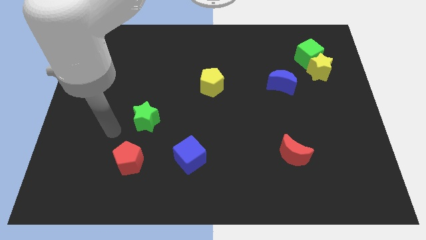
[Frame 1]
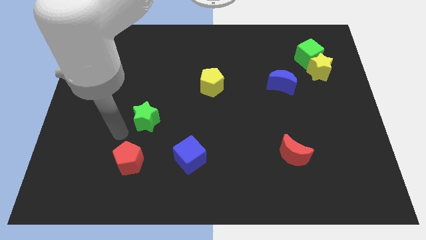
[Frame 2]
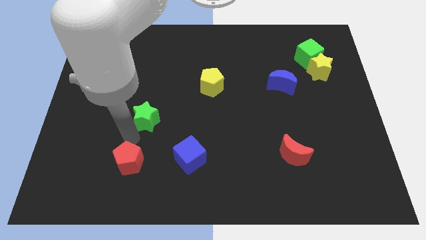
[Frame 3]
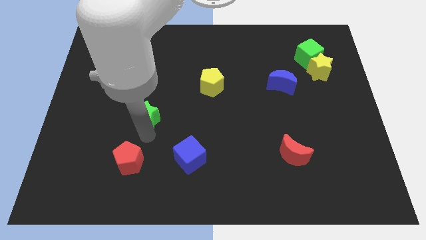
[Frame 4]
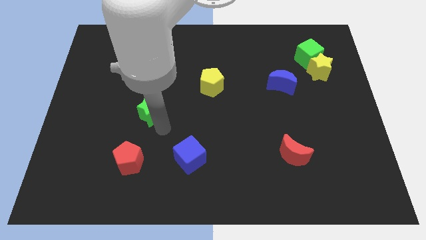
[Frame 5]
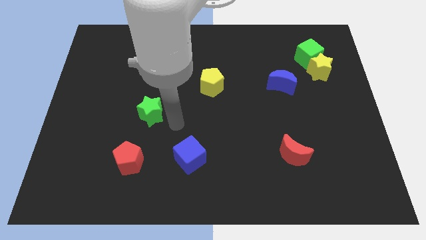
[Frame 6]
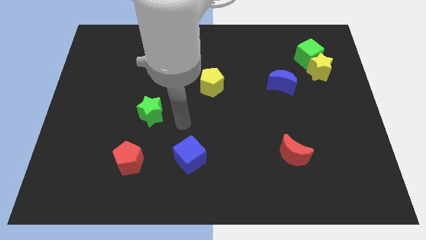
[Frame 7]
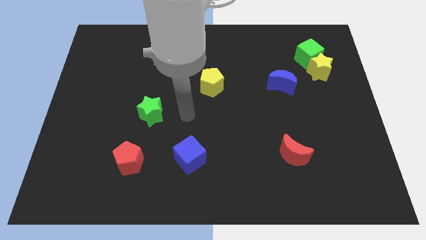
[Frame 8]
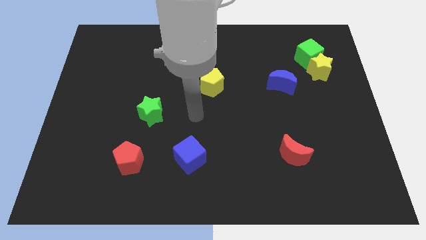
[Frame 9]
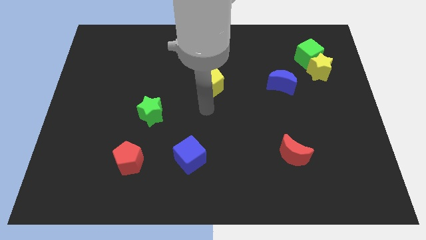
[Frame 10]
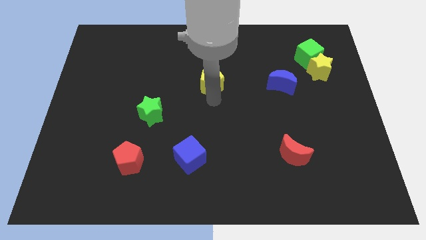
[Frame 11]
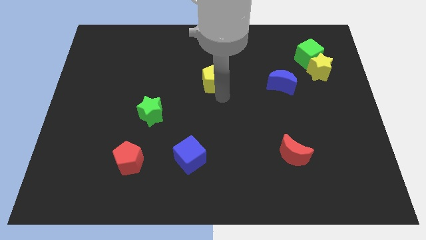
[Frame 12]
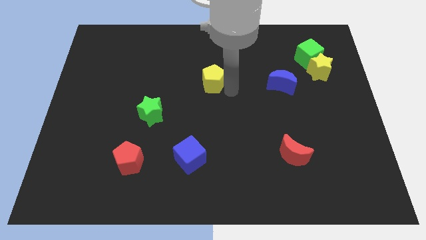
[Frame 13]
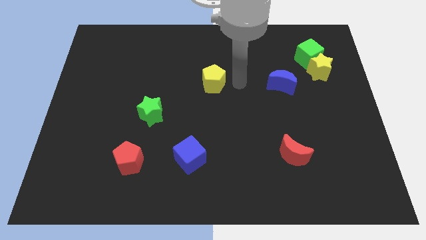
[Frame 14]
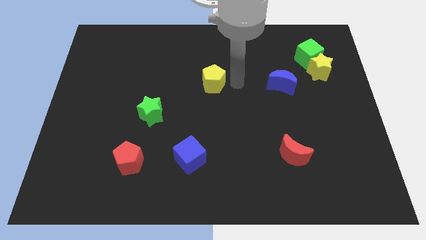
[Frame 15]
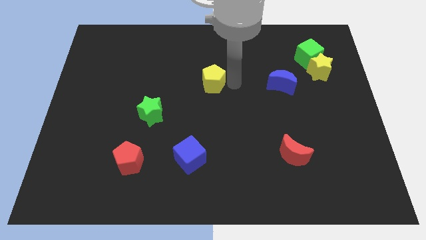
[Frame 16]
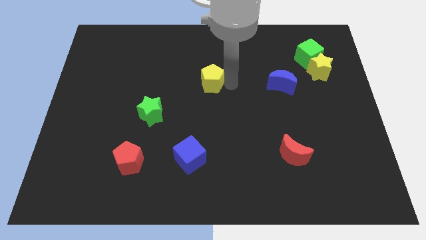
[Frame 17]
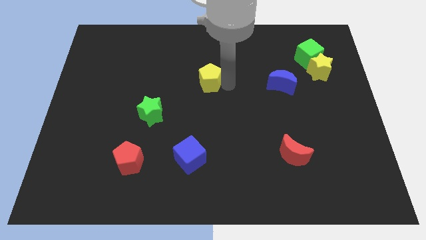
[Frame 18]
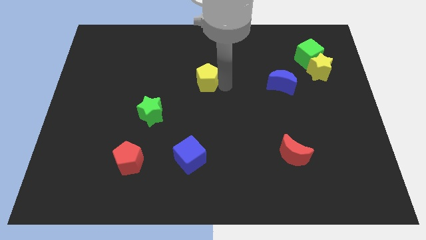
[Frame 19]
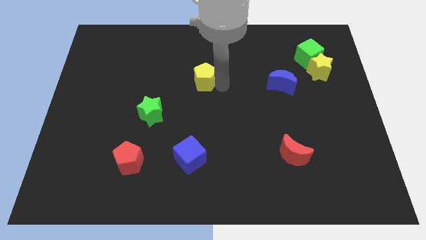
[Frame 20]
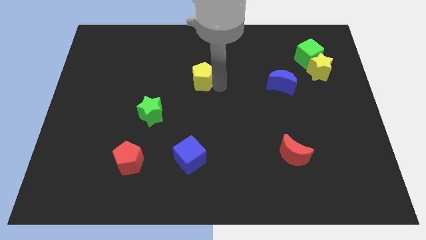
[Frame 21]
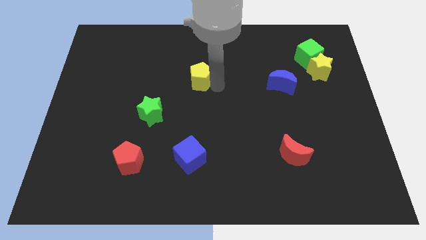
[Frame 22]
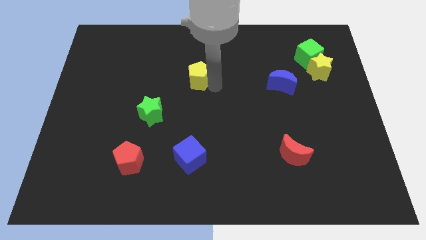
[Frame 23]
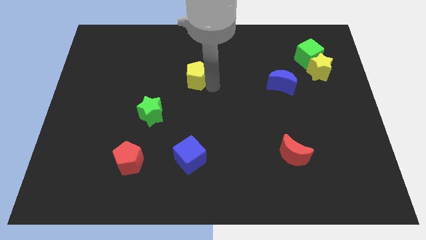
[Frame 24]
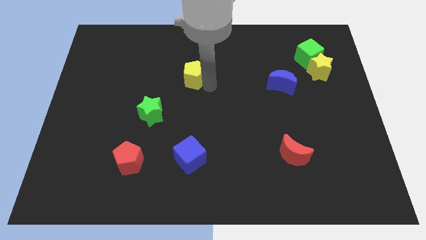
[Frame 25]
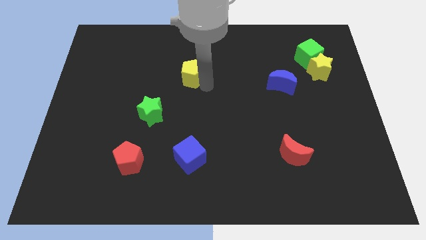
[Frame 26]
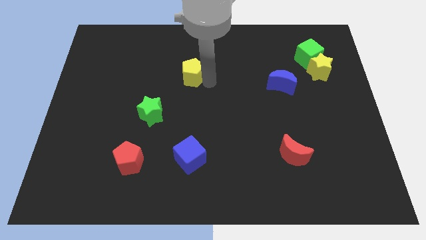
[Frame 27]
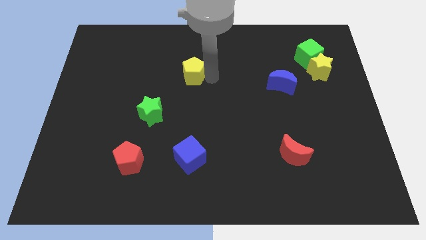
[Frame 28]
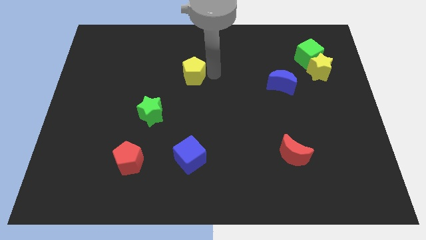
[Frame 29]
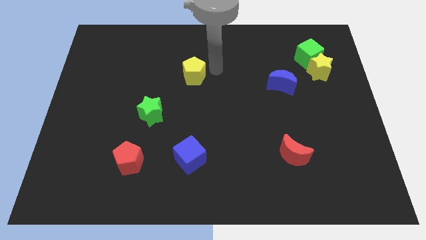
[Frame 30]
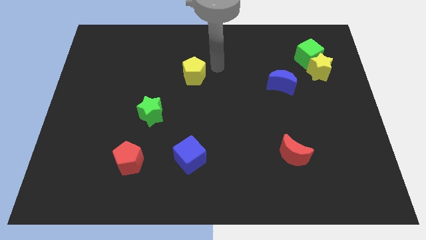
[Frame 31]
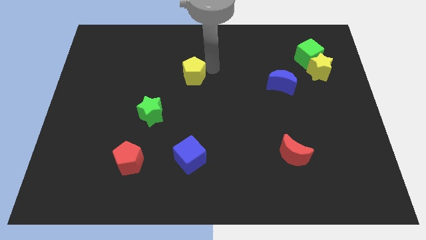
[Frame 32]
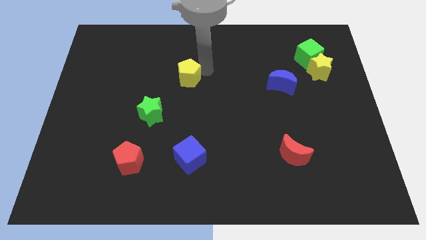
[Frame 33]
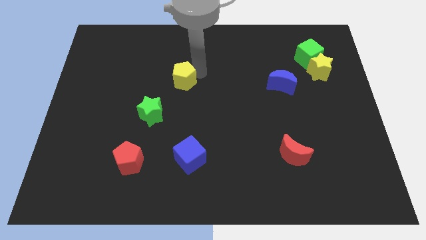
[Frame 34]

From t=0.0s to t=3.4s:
move the yellow pentagon slightly to the left

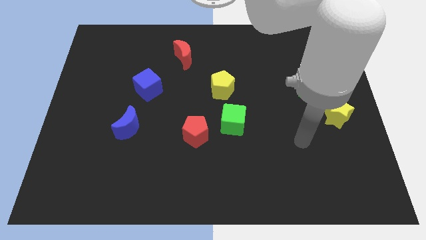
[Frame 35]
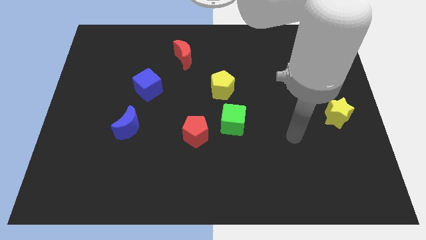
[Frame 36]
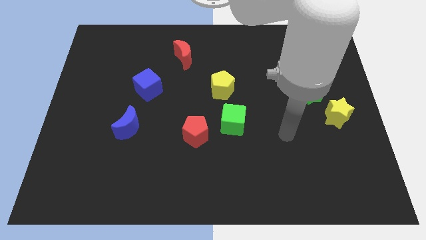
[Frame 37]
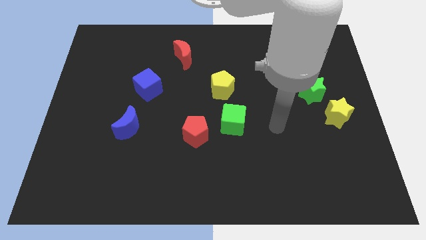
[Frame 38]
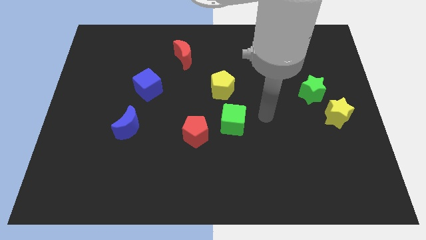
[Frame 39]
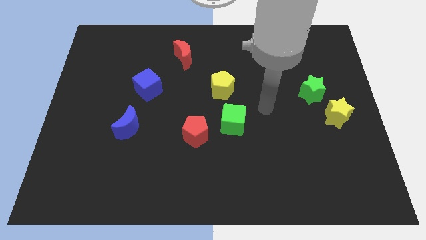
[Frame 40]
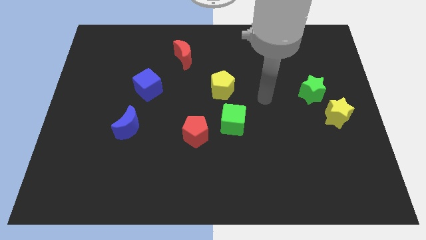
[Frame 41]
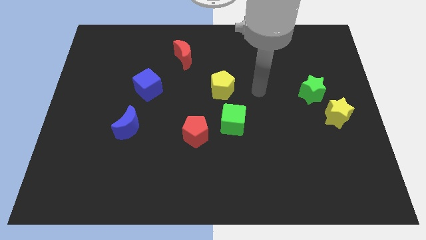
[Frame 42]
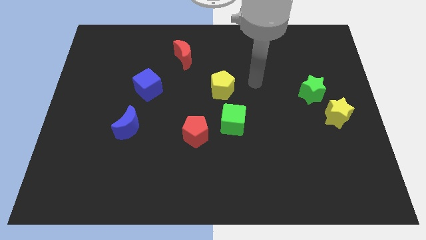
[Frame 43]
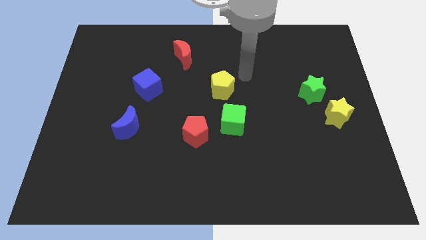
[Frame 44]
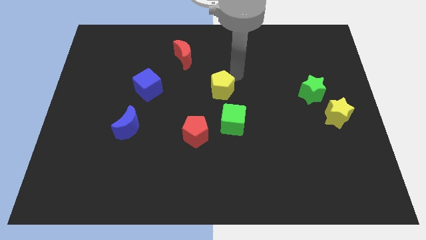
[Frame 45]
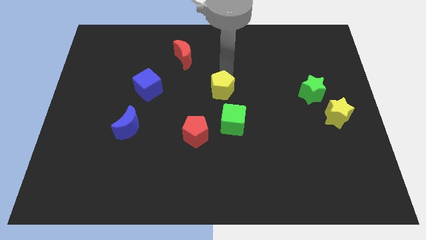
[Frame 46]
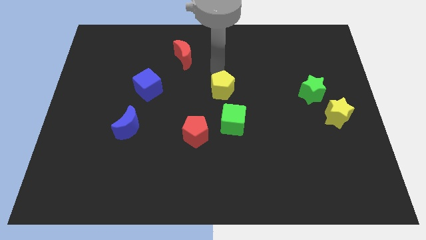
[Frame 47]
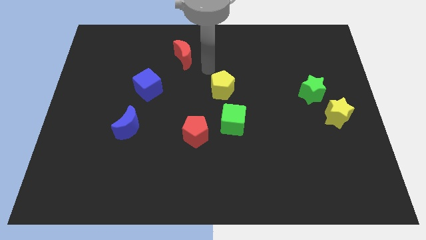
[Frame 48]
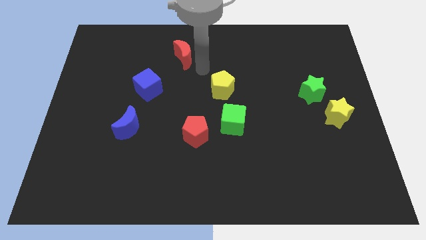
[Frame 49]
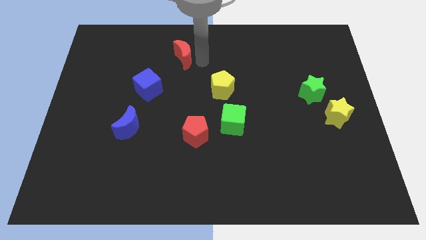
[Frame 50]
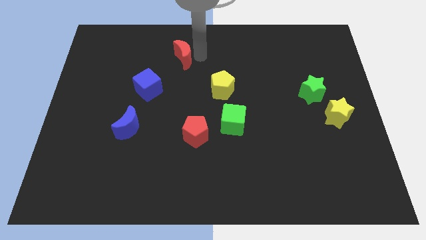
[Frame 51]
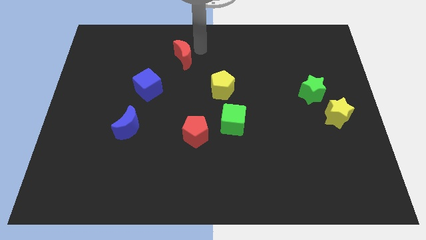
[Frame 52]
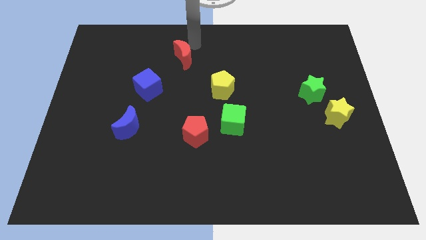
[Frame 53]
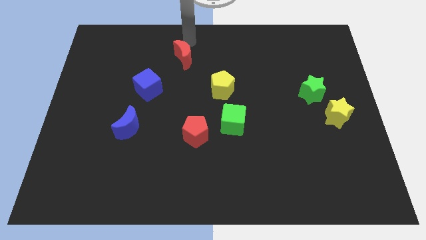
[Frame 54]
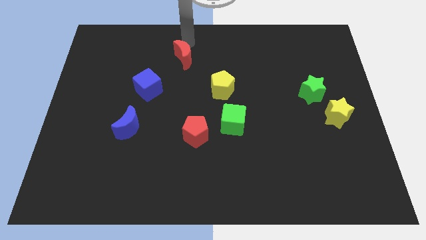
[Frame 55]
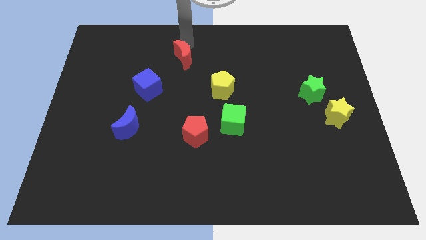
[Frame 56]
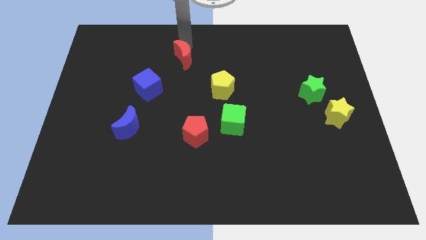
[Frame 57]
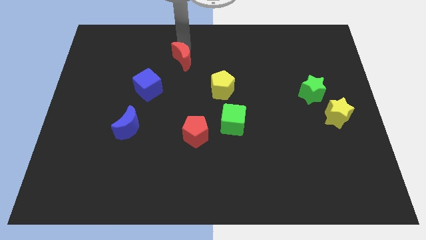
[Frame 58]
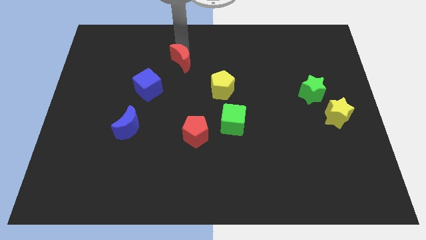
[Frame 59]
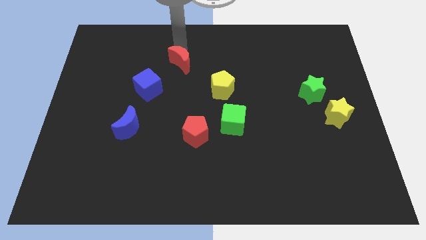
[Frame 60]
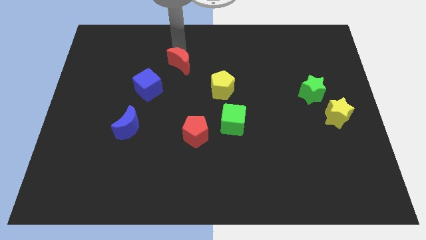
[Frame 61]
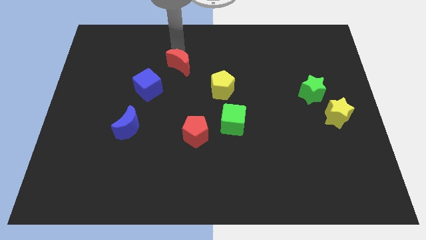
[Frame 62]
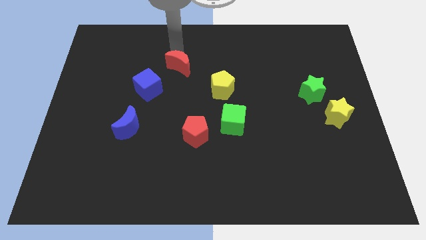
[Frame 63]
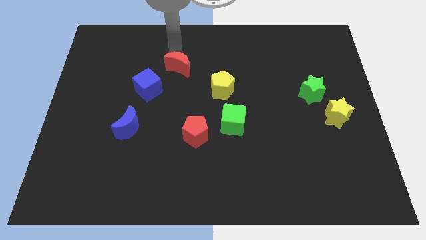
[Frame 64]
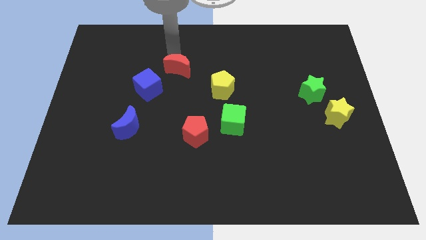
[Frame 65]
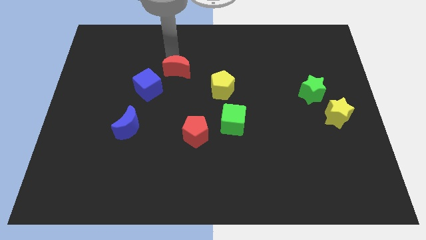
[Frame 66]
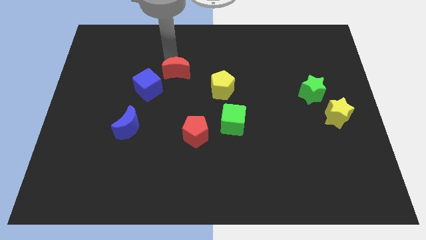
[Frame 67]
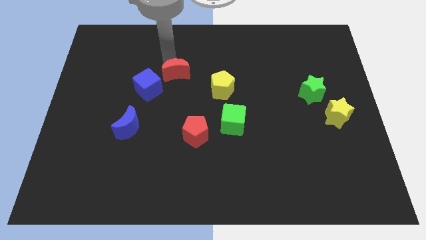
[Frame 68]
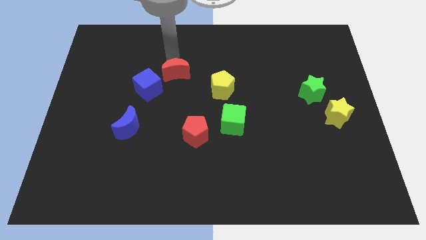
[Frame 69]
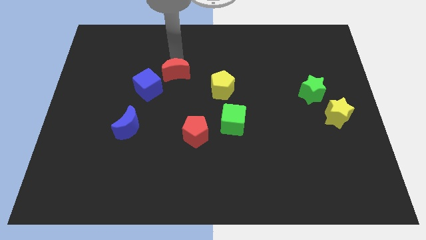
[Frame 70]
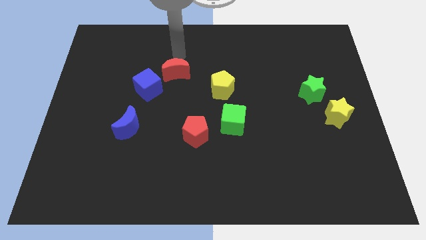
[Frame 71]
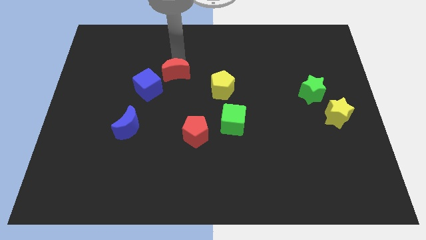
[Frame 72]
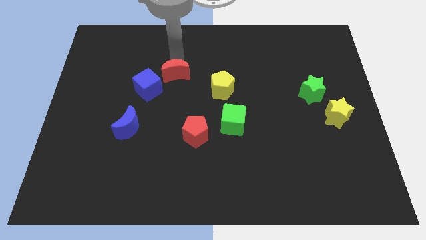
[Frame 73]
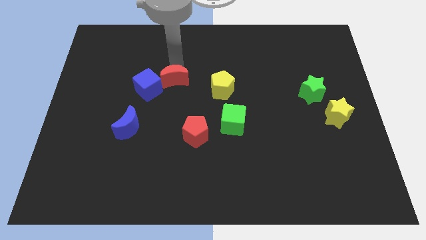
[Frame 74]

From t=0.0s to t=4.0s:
move the red moon downwards somewhat

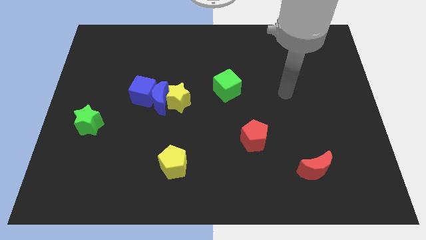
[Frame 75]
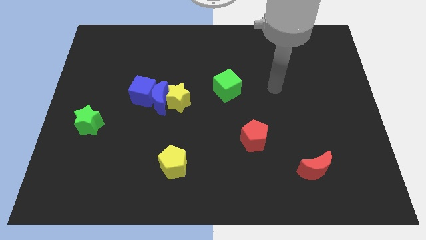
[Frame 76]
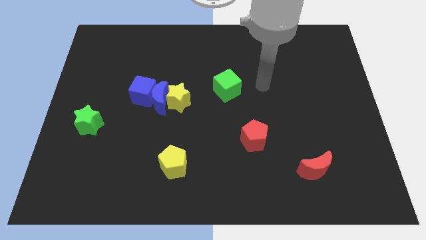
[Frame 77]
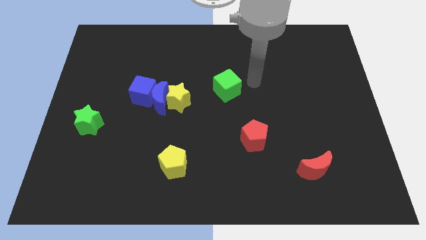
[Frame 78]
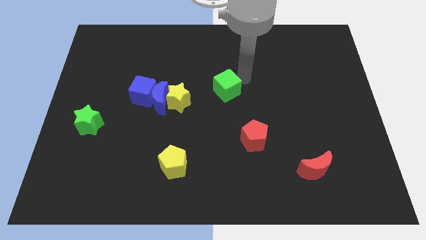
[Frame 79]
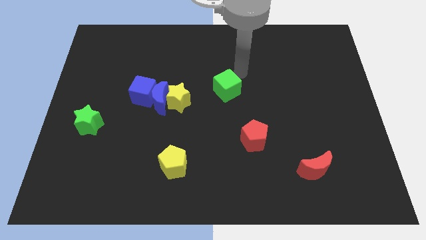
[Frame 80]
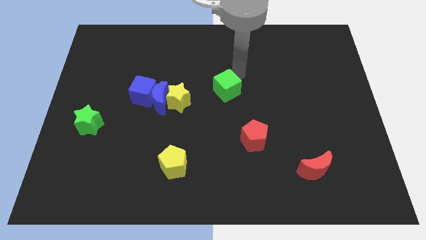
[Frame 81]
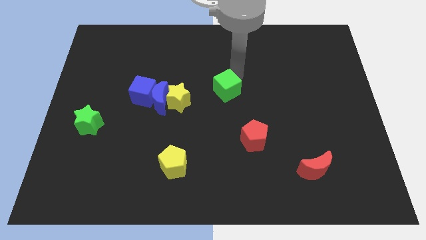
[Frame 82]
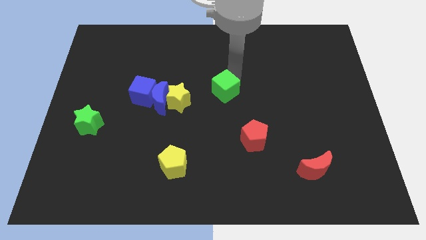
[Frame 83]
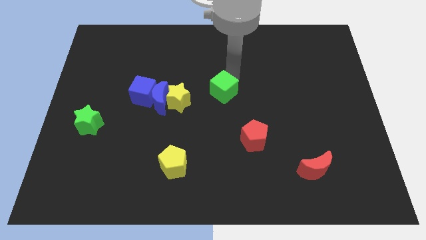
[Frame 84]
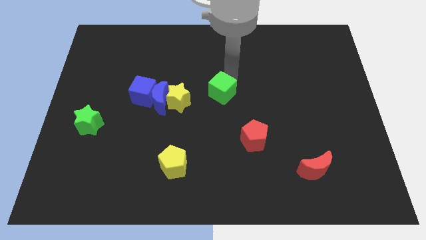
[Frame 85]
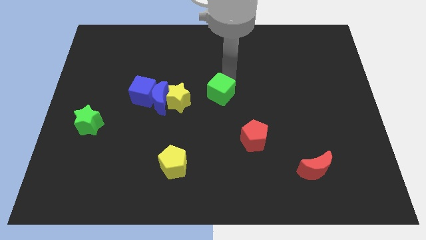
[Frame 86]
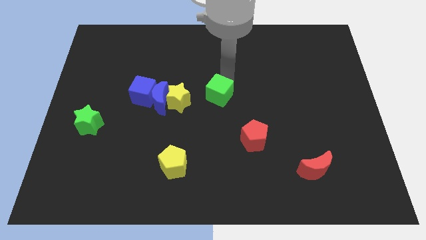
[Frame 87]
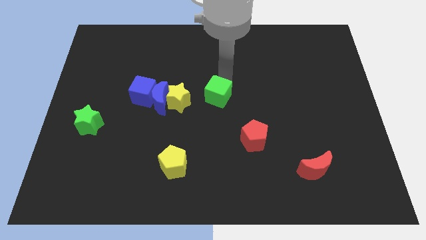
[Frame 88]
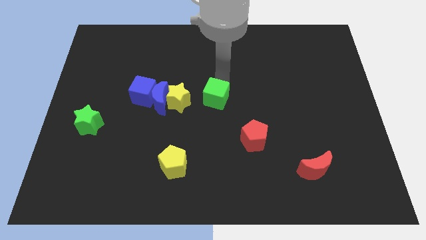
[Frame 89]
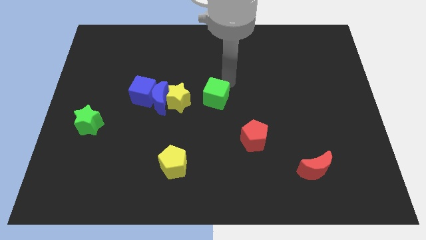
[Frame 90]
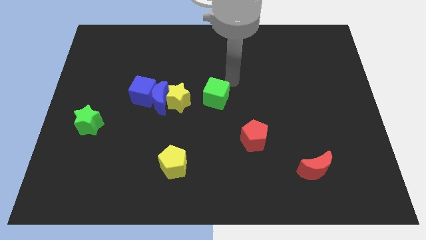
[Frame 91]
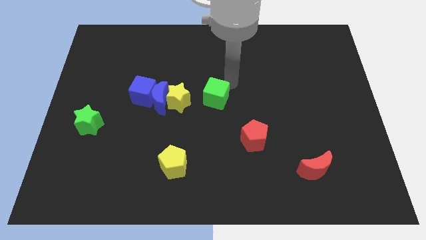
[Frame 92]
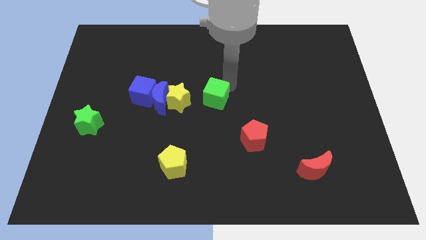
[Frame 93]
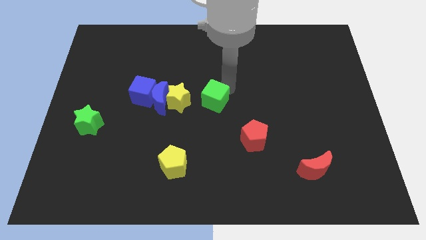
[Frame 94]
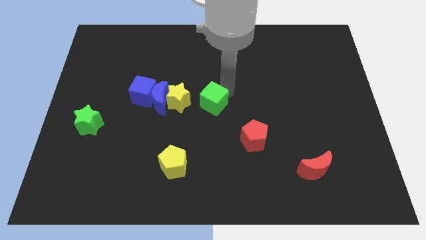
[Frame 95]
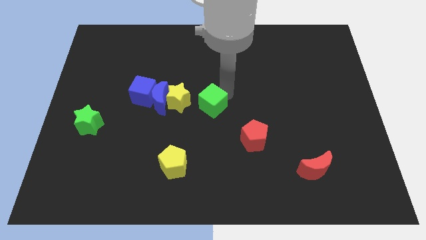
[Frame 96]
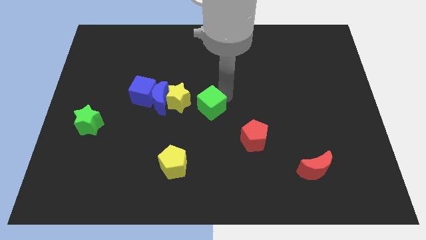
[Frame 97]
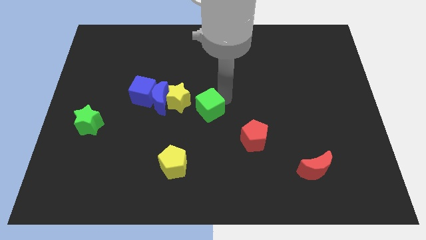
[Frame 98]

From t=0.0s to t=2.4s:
slightly slide the green cube down and to the left diagonally
